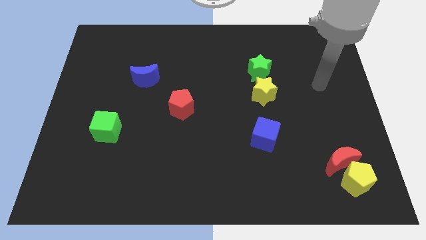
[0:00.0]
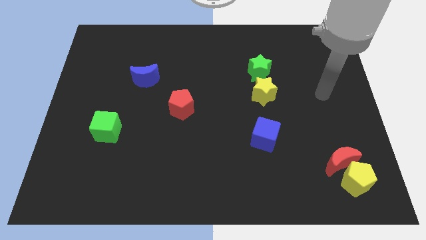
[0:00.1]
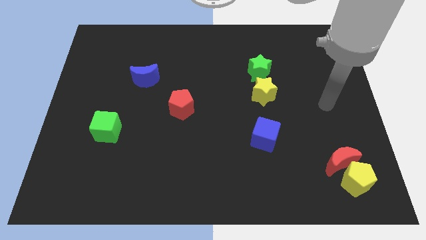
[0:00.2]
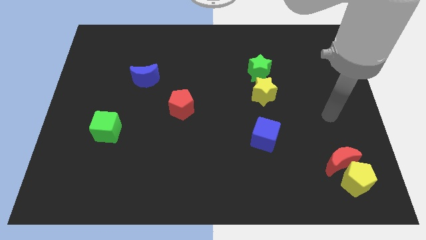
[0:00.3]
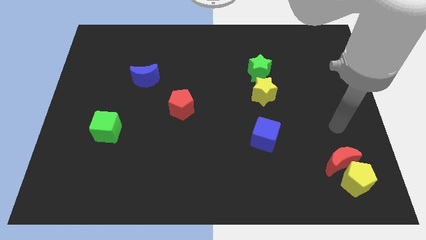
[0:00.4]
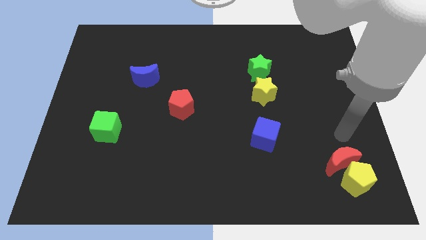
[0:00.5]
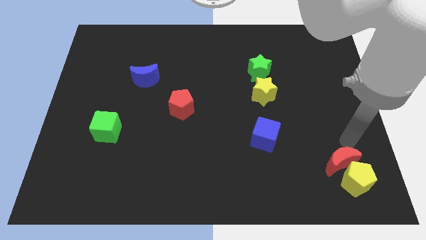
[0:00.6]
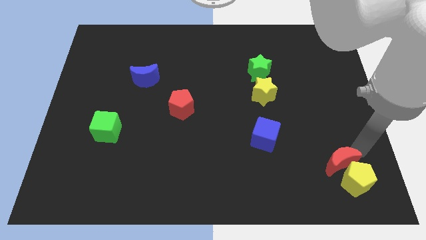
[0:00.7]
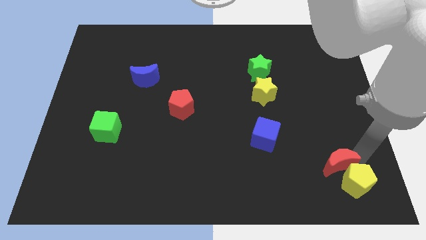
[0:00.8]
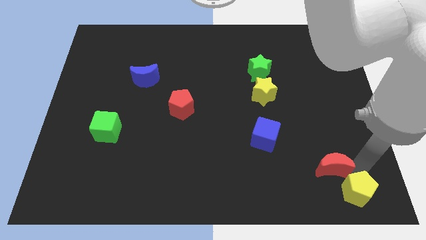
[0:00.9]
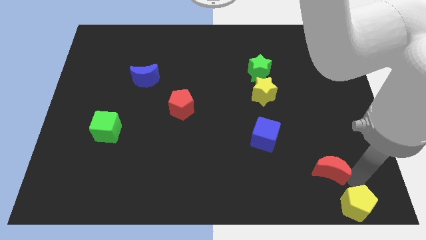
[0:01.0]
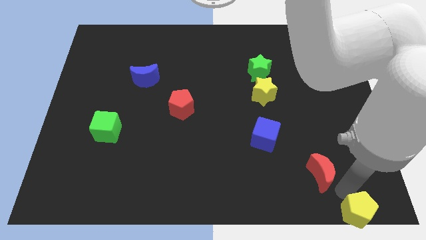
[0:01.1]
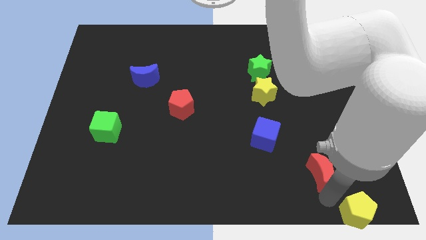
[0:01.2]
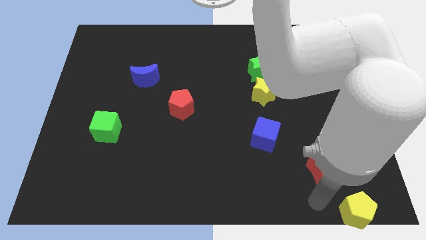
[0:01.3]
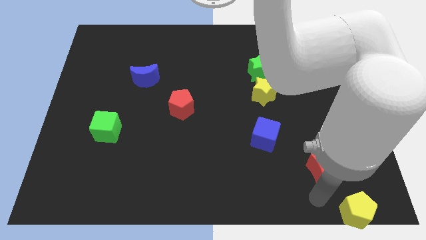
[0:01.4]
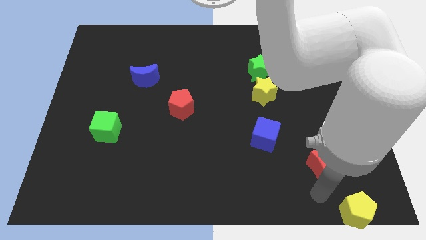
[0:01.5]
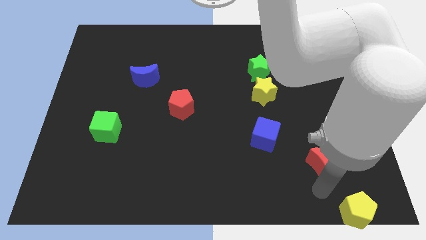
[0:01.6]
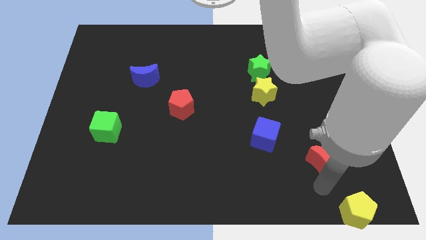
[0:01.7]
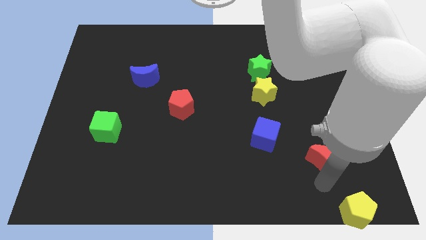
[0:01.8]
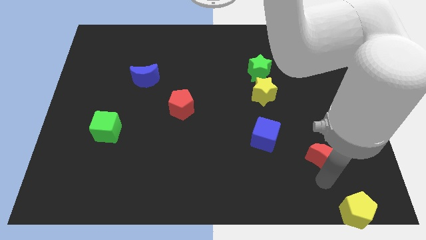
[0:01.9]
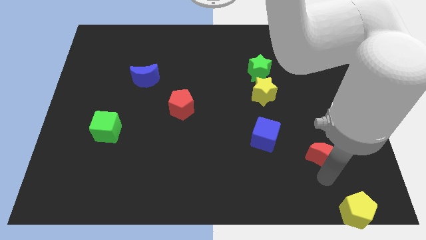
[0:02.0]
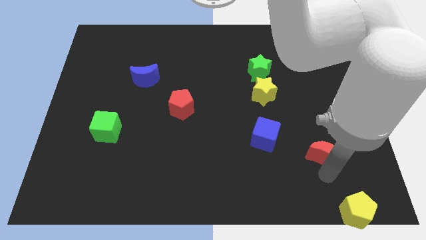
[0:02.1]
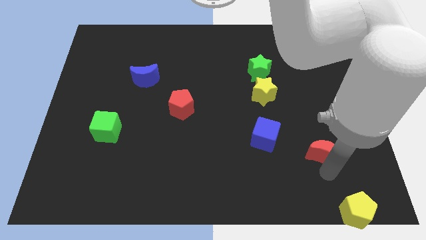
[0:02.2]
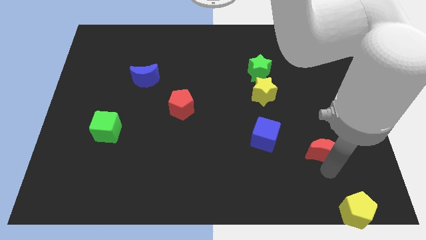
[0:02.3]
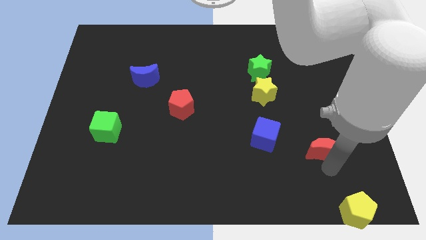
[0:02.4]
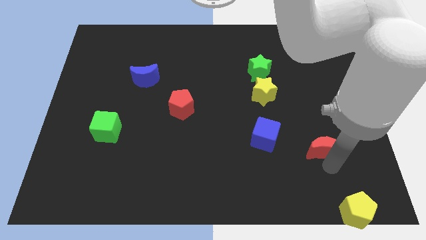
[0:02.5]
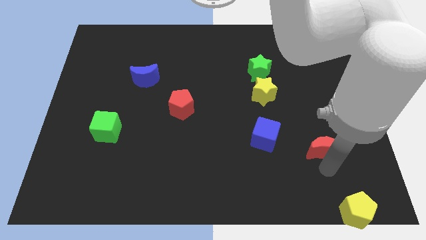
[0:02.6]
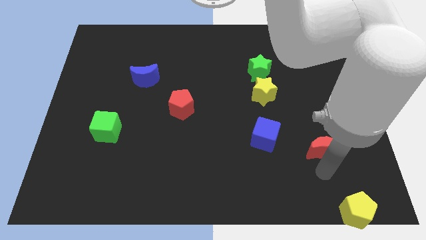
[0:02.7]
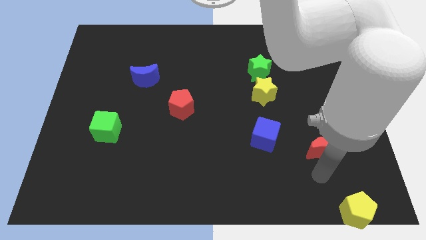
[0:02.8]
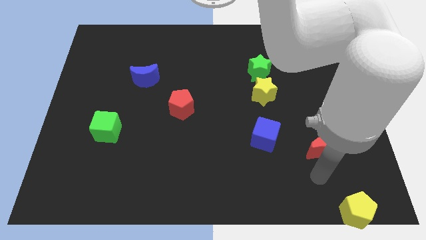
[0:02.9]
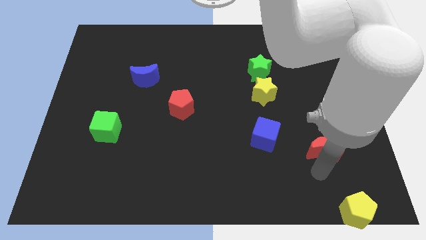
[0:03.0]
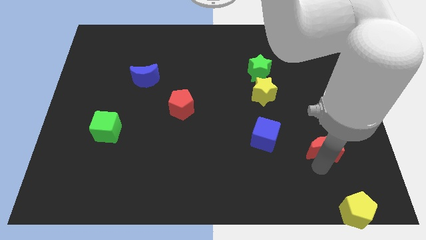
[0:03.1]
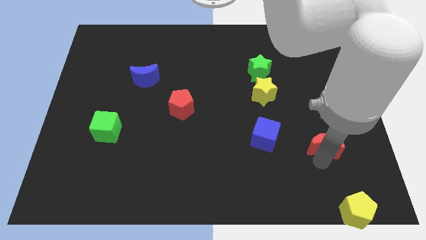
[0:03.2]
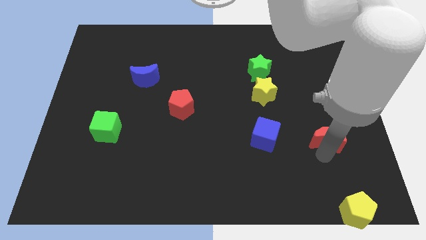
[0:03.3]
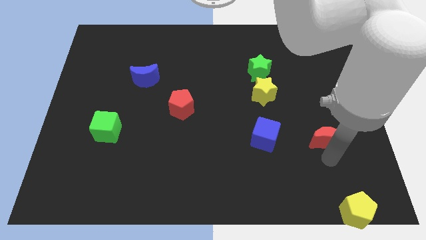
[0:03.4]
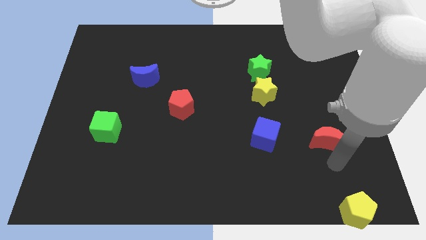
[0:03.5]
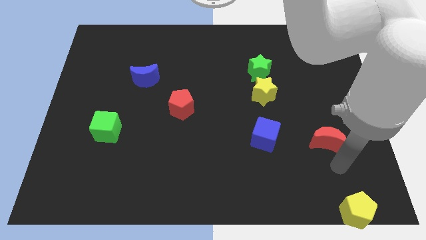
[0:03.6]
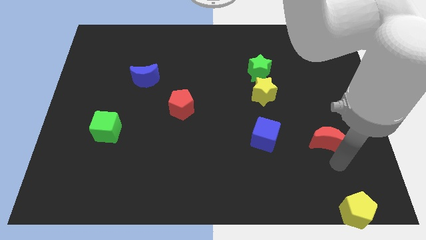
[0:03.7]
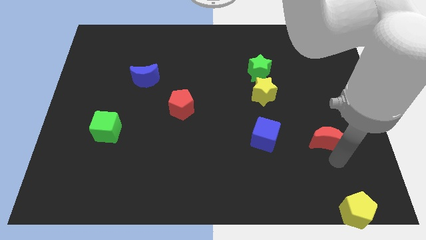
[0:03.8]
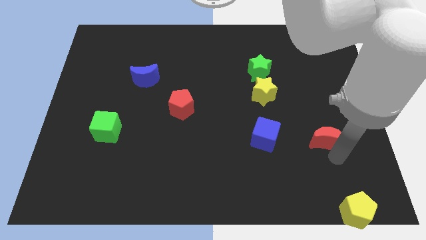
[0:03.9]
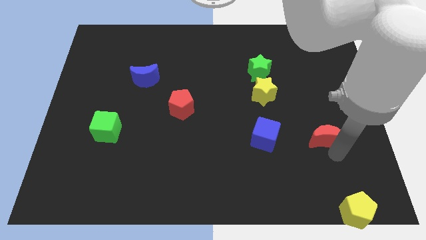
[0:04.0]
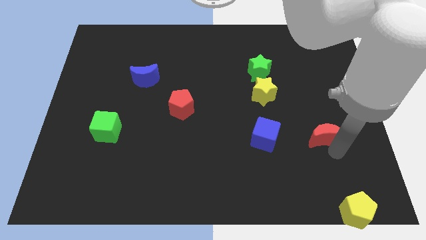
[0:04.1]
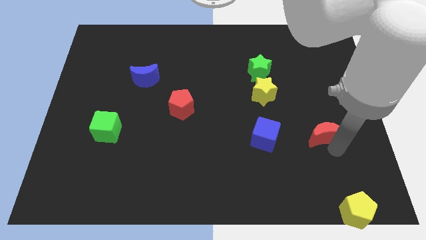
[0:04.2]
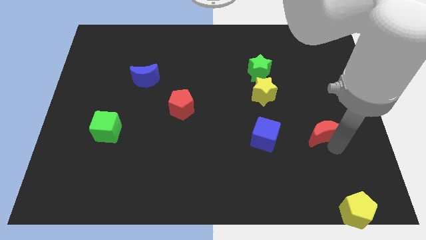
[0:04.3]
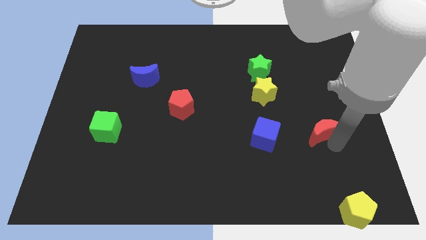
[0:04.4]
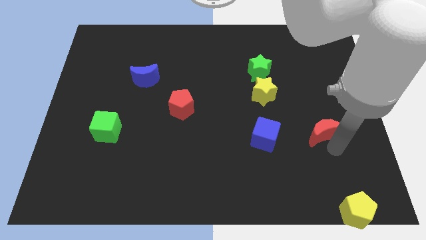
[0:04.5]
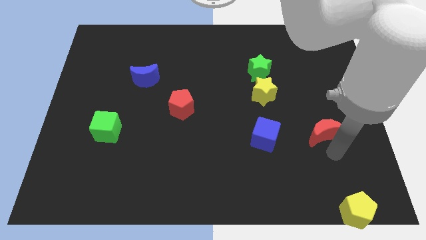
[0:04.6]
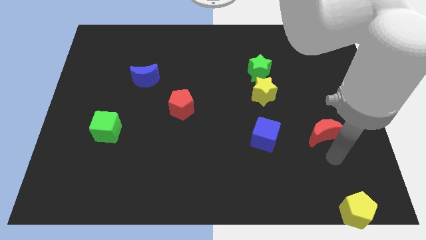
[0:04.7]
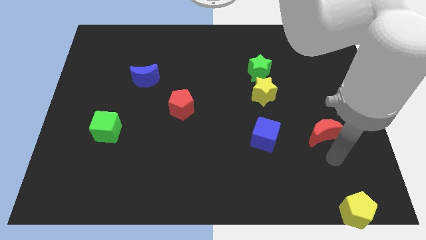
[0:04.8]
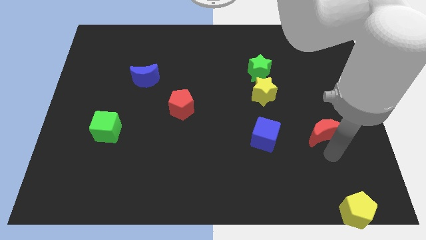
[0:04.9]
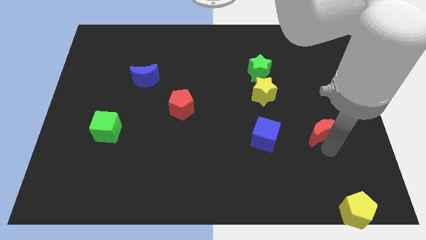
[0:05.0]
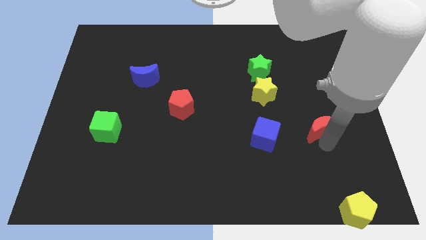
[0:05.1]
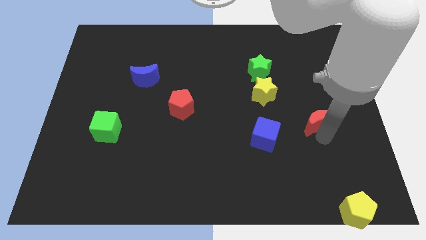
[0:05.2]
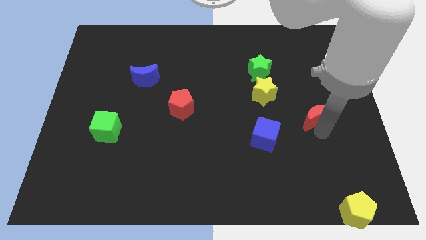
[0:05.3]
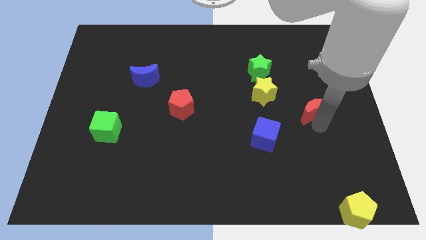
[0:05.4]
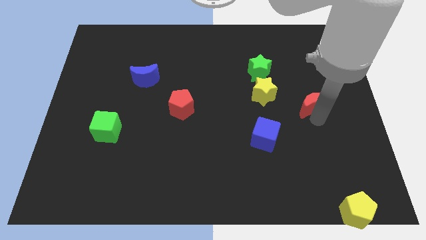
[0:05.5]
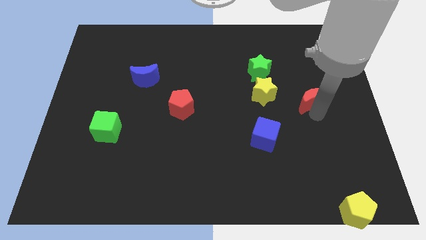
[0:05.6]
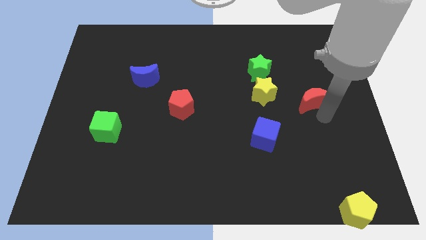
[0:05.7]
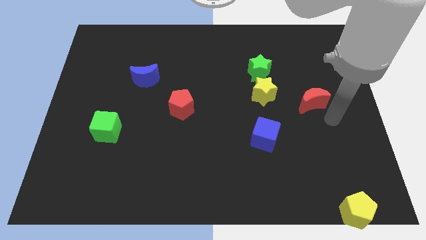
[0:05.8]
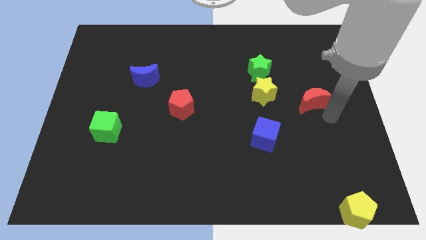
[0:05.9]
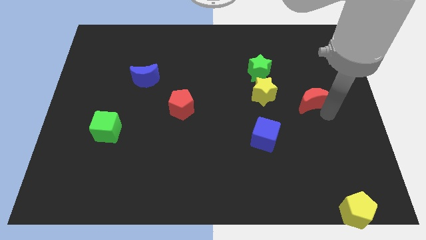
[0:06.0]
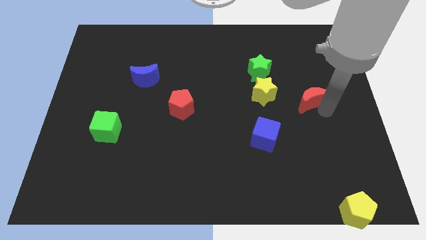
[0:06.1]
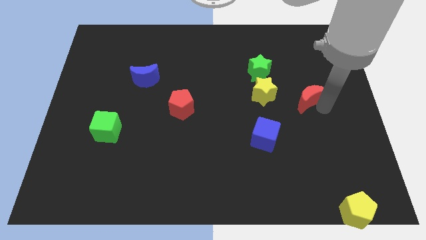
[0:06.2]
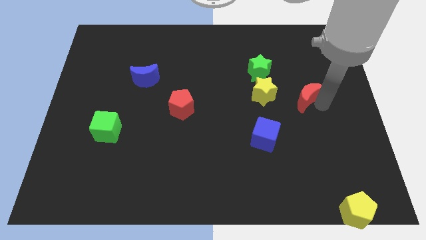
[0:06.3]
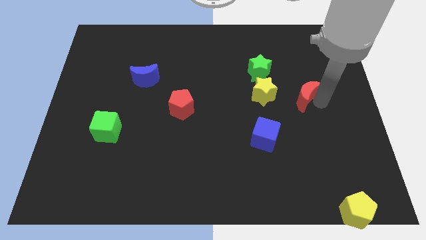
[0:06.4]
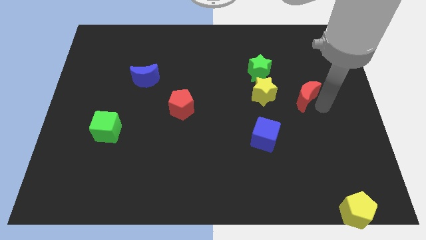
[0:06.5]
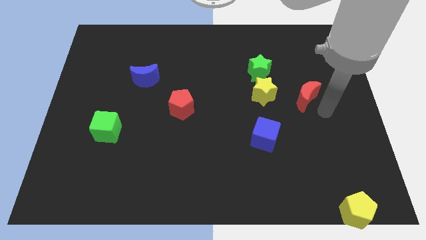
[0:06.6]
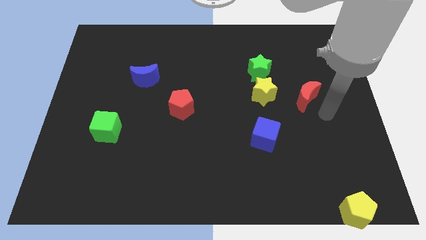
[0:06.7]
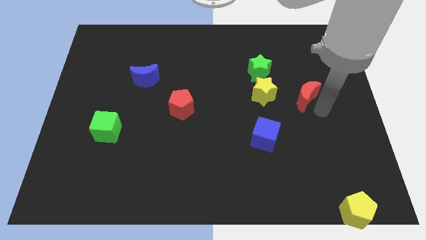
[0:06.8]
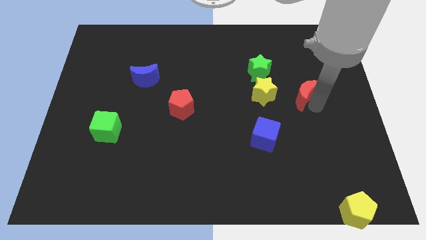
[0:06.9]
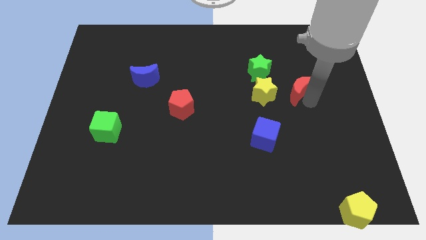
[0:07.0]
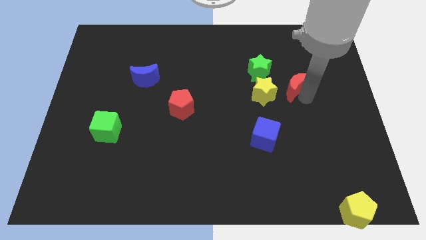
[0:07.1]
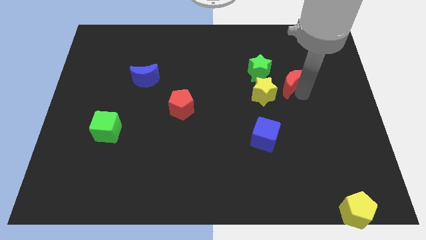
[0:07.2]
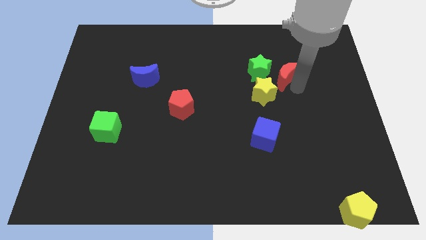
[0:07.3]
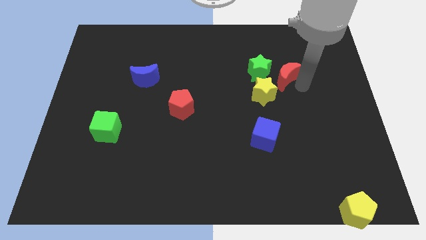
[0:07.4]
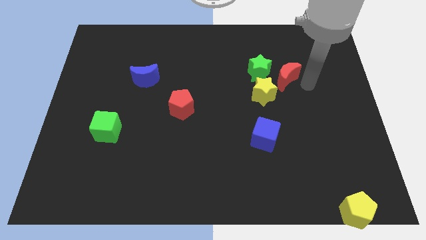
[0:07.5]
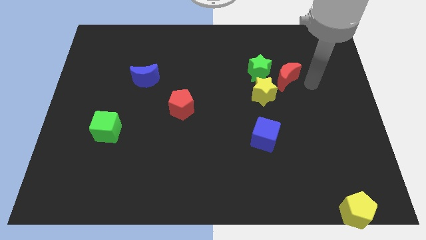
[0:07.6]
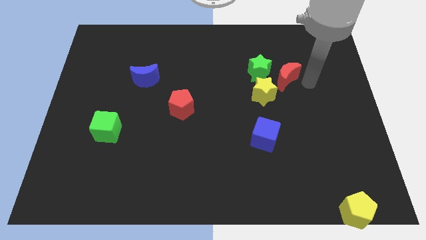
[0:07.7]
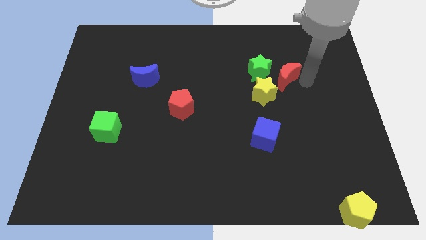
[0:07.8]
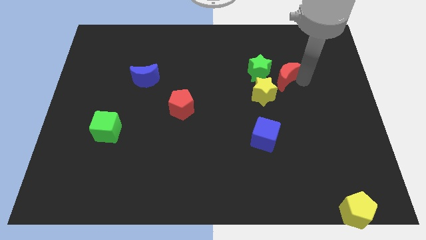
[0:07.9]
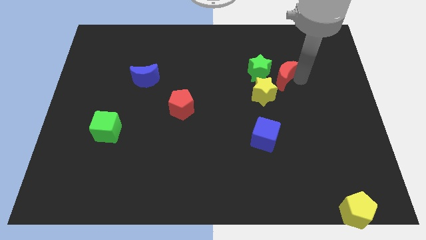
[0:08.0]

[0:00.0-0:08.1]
slide the red moon towards the green star

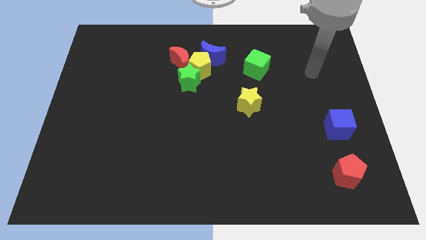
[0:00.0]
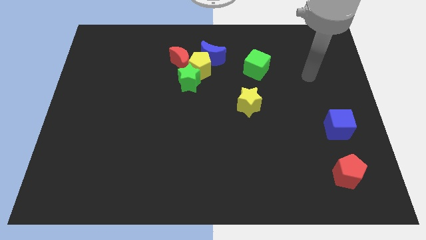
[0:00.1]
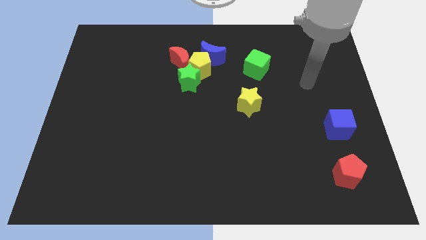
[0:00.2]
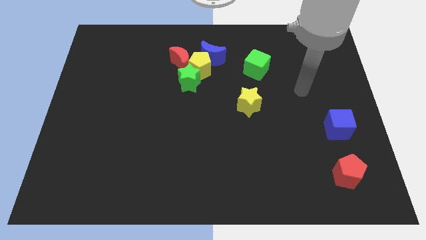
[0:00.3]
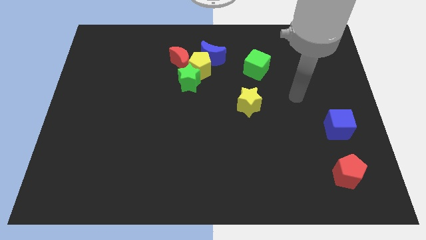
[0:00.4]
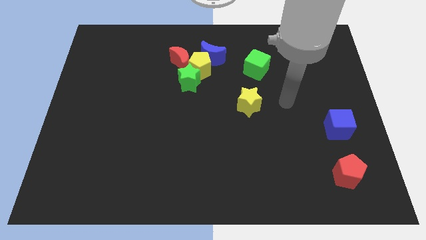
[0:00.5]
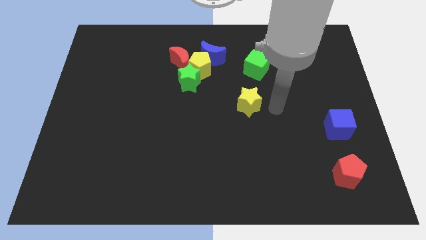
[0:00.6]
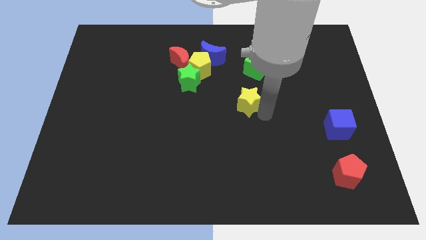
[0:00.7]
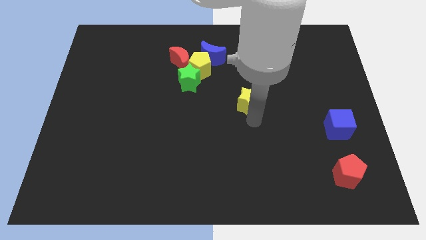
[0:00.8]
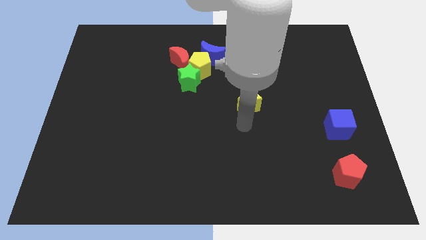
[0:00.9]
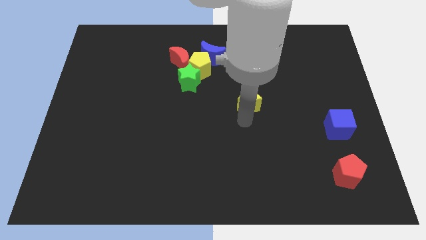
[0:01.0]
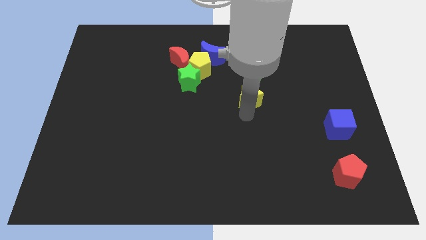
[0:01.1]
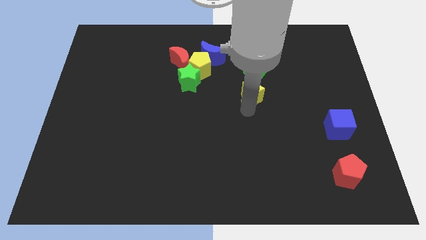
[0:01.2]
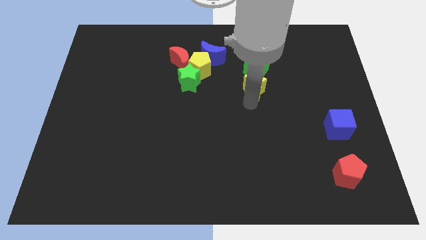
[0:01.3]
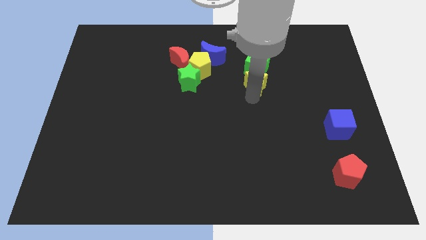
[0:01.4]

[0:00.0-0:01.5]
slide the yellow star close to the green cube
